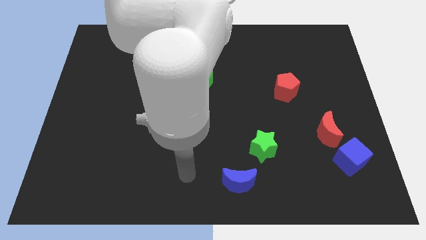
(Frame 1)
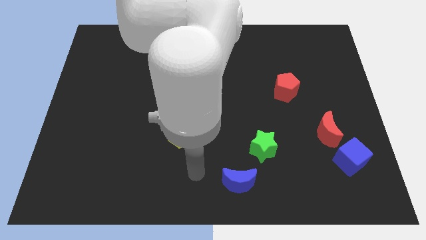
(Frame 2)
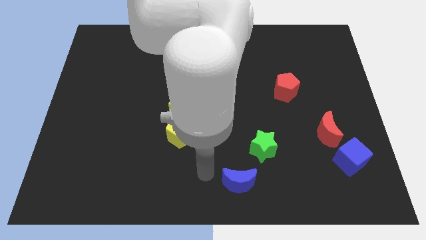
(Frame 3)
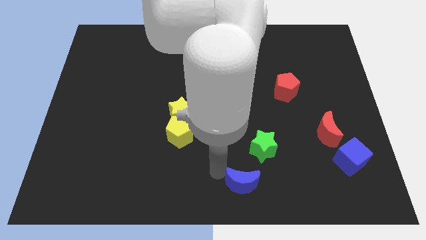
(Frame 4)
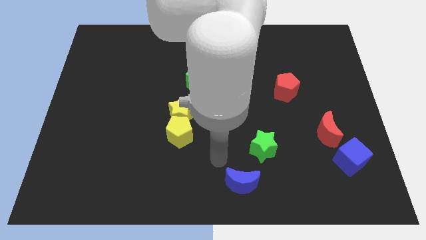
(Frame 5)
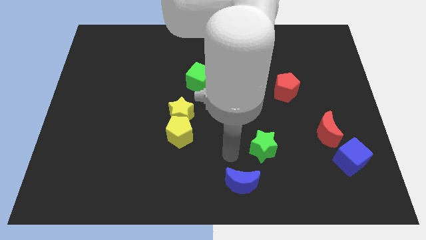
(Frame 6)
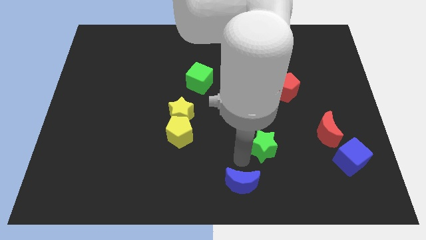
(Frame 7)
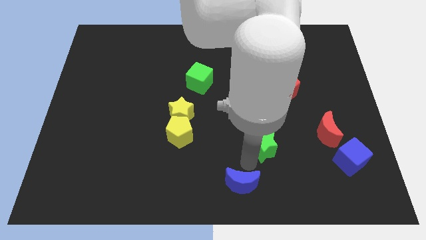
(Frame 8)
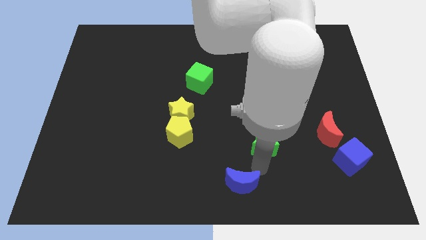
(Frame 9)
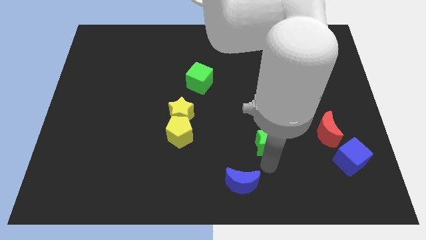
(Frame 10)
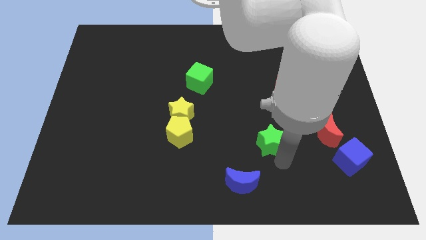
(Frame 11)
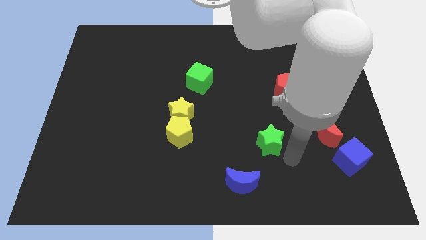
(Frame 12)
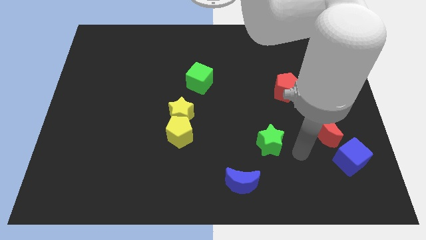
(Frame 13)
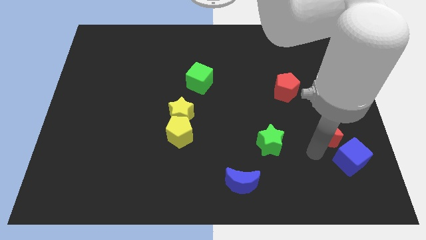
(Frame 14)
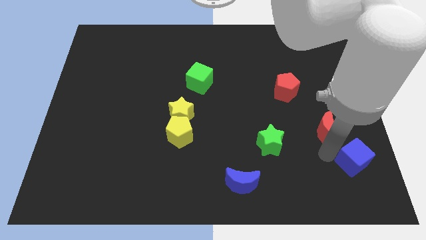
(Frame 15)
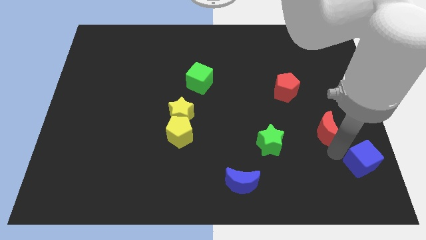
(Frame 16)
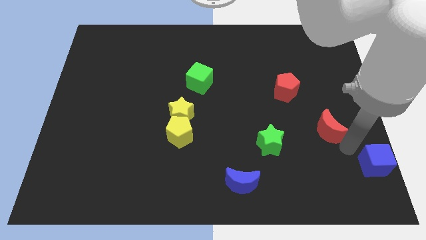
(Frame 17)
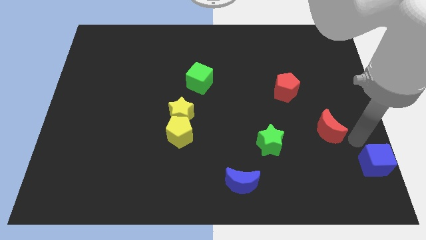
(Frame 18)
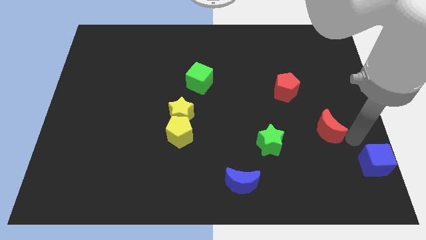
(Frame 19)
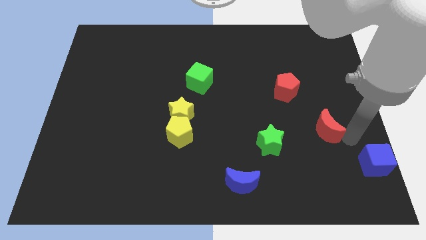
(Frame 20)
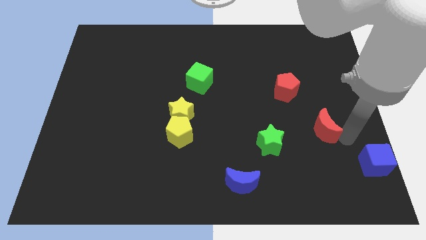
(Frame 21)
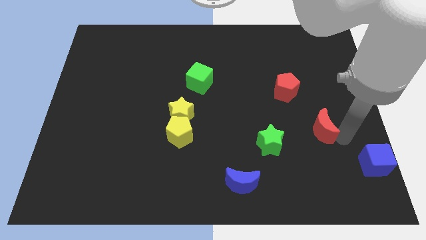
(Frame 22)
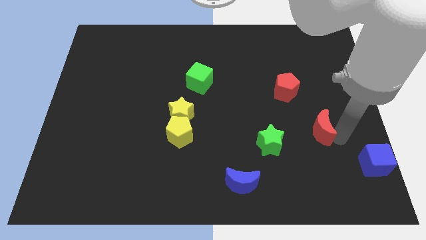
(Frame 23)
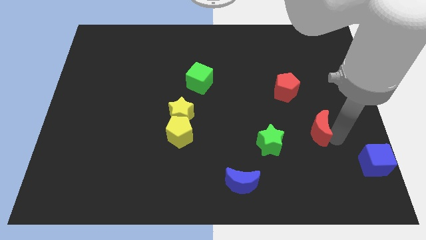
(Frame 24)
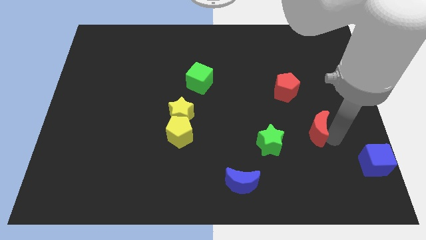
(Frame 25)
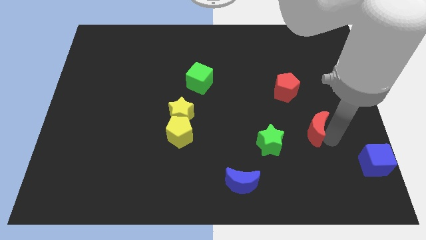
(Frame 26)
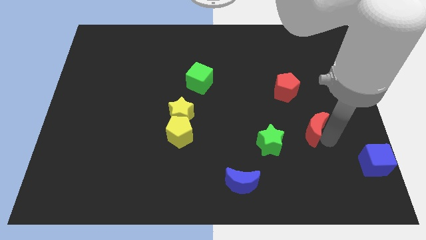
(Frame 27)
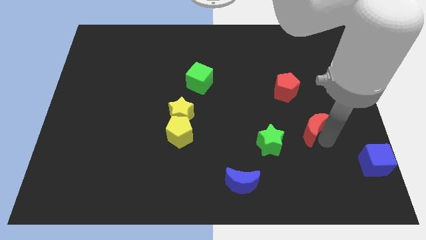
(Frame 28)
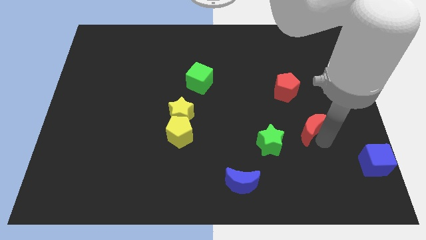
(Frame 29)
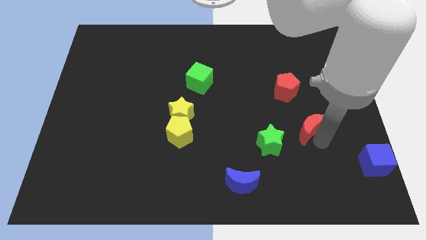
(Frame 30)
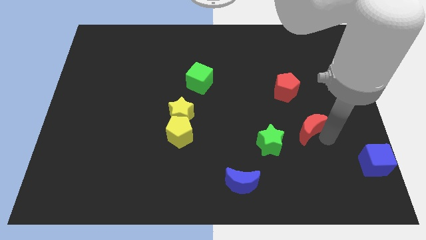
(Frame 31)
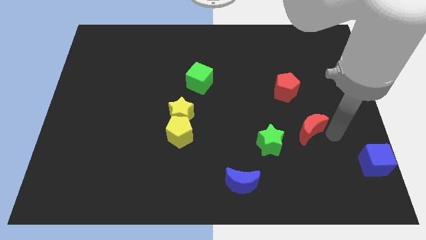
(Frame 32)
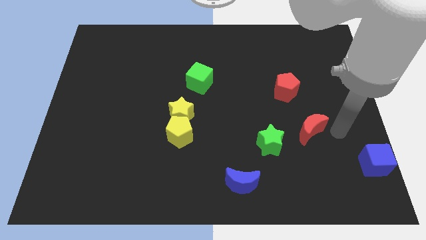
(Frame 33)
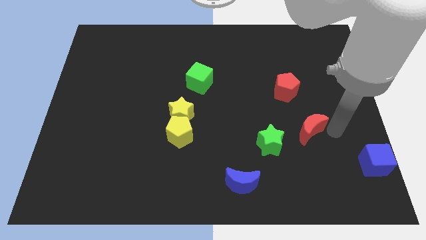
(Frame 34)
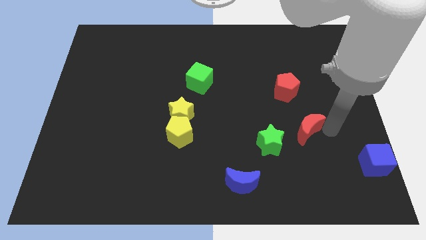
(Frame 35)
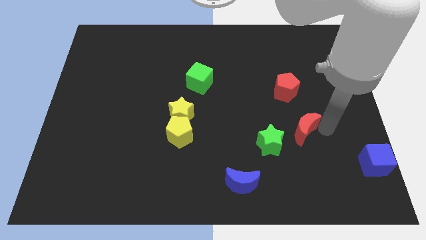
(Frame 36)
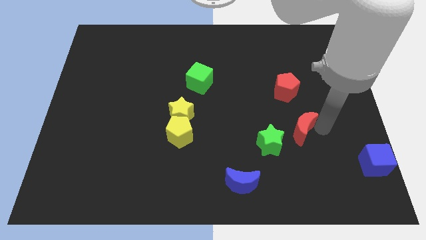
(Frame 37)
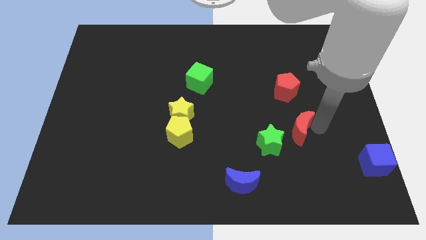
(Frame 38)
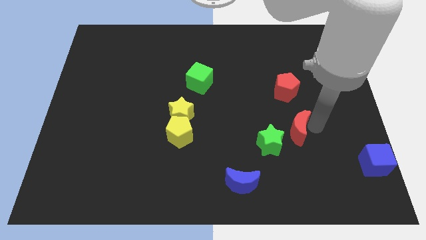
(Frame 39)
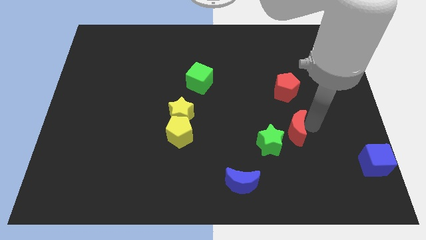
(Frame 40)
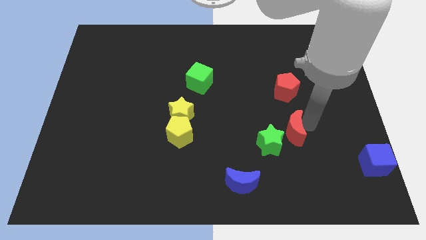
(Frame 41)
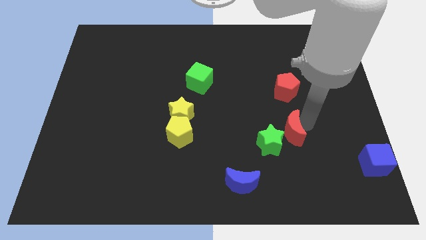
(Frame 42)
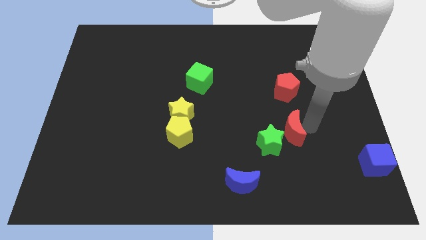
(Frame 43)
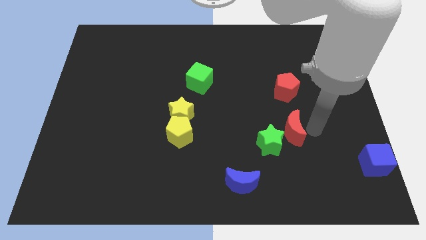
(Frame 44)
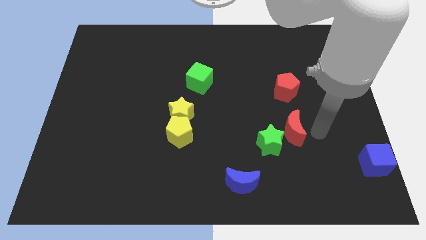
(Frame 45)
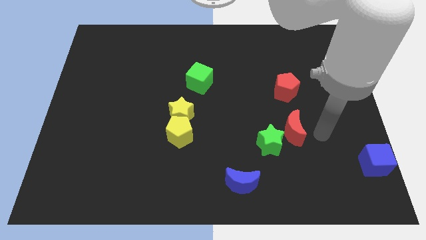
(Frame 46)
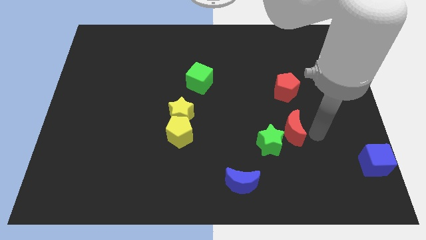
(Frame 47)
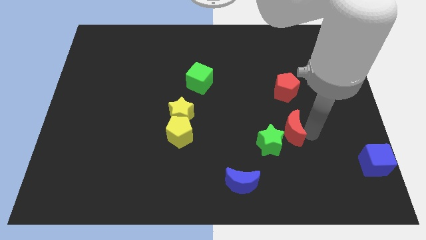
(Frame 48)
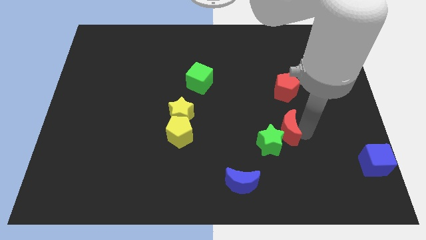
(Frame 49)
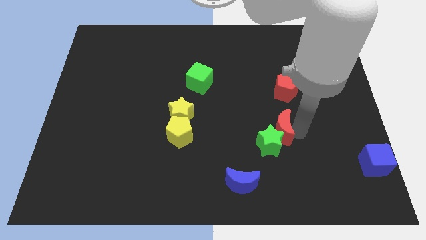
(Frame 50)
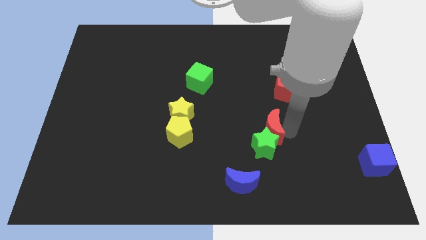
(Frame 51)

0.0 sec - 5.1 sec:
move the red moon to the top left side of the green star

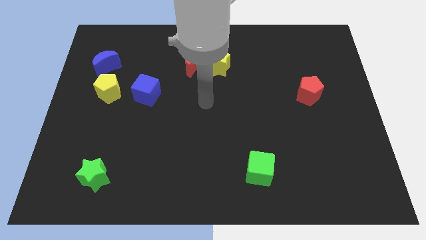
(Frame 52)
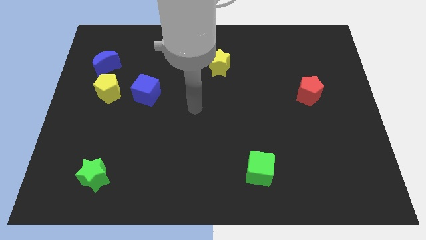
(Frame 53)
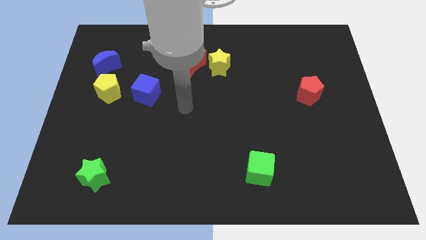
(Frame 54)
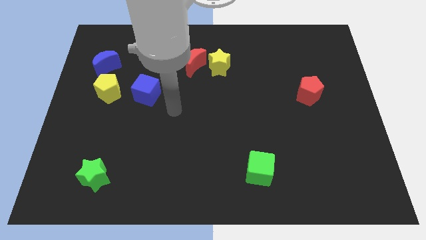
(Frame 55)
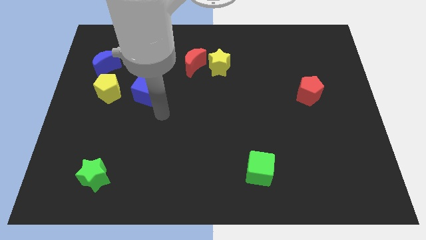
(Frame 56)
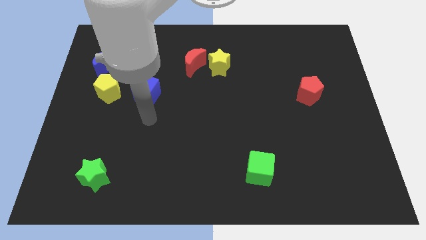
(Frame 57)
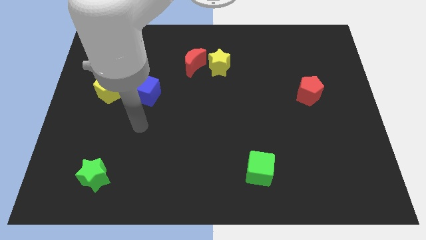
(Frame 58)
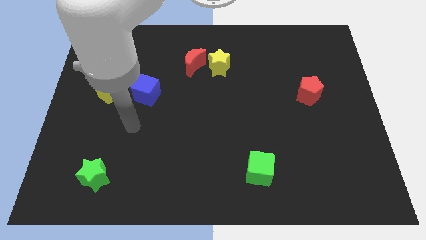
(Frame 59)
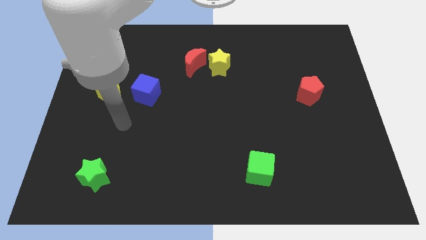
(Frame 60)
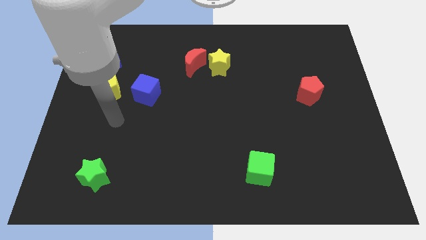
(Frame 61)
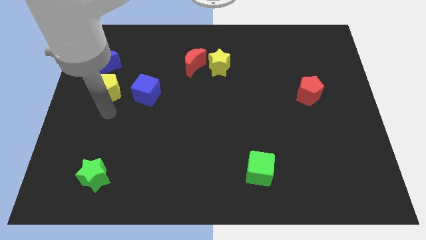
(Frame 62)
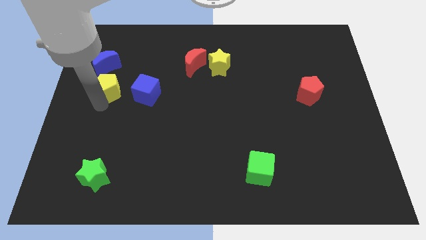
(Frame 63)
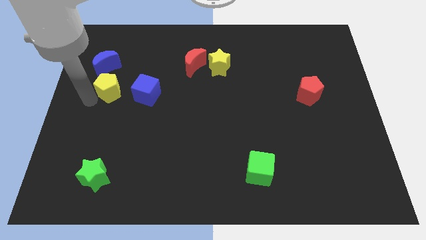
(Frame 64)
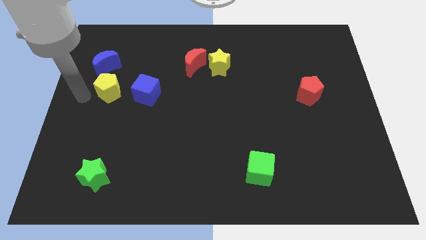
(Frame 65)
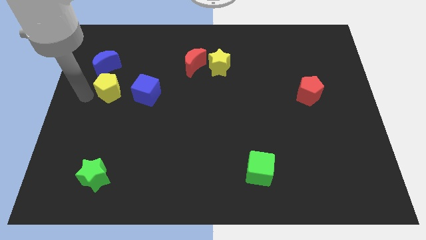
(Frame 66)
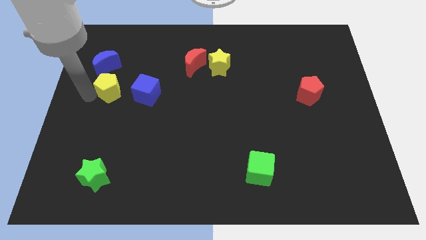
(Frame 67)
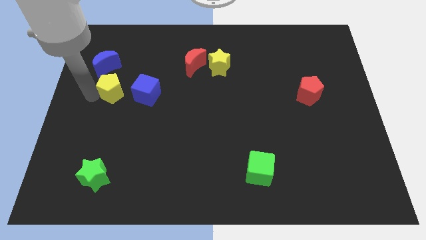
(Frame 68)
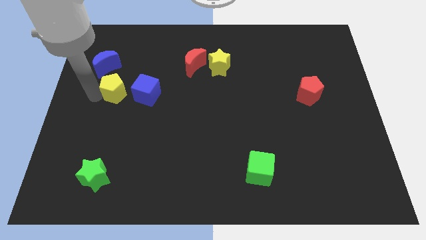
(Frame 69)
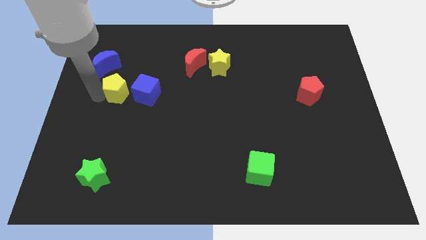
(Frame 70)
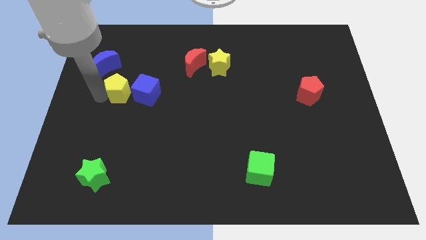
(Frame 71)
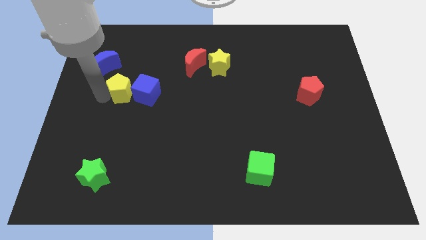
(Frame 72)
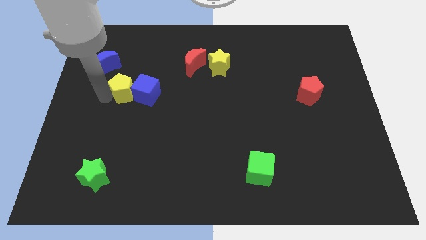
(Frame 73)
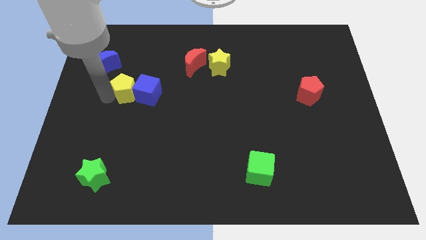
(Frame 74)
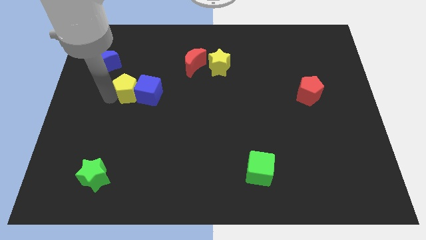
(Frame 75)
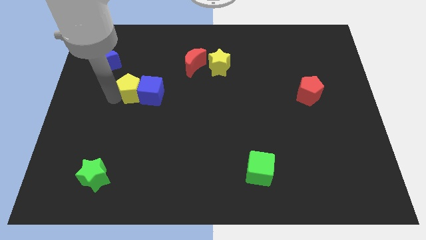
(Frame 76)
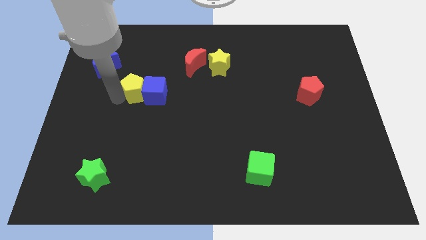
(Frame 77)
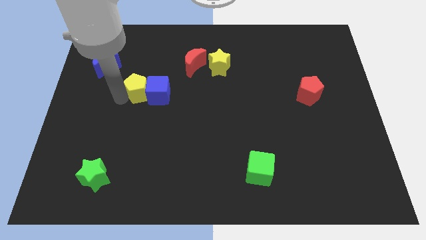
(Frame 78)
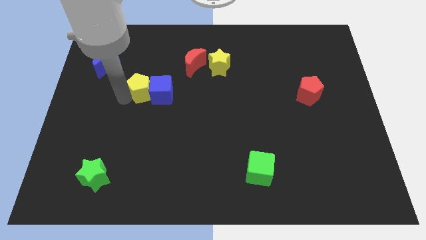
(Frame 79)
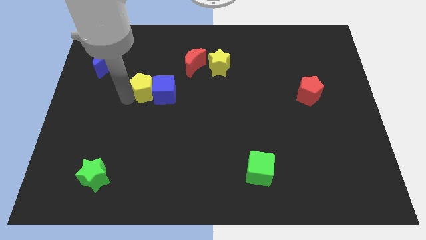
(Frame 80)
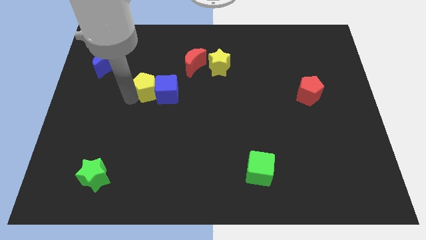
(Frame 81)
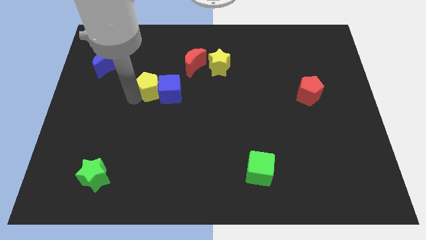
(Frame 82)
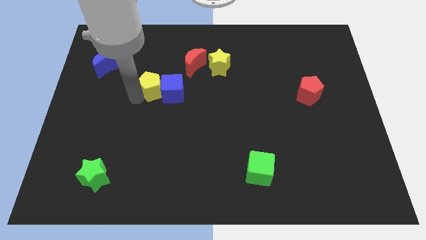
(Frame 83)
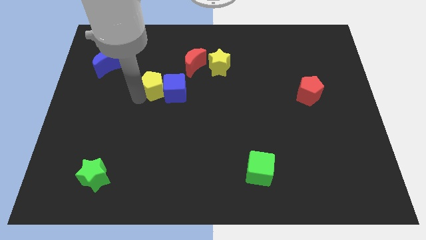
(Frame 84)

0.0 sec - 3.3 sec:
put the yellow pentagon diagonally down and to the left of the red moon
